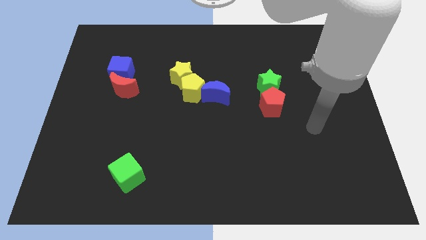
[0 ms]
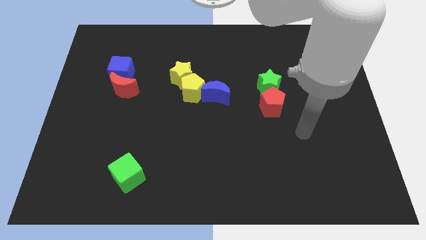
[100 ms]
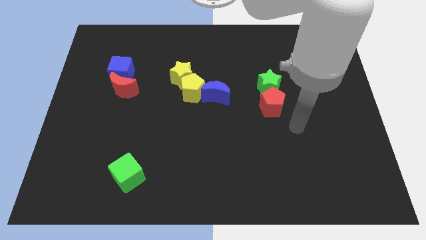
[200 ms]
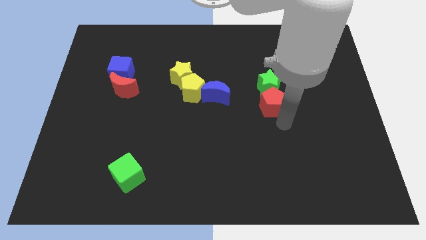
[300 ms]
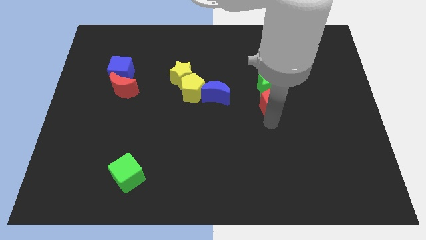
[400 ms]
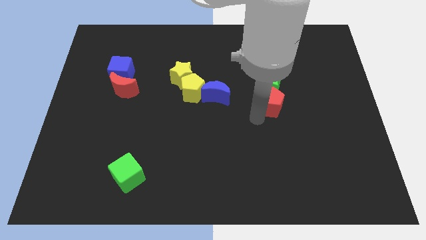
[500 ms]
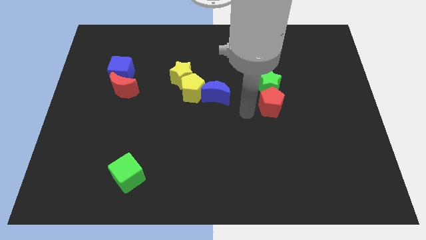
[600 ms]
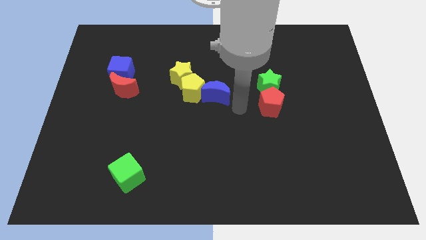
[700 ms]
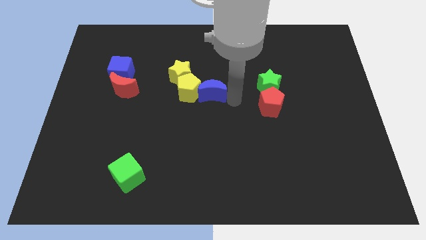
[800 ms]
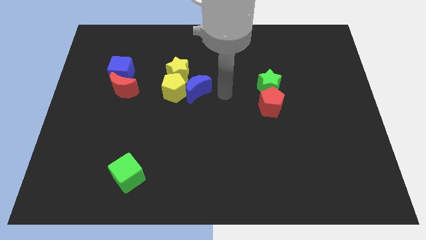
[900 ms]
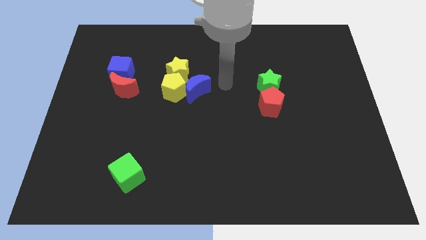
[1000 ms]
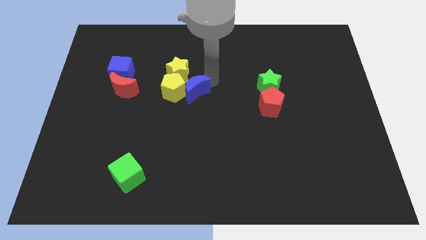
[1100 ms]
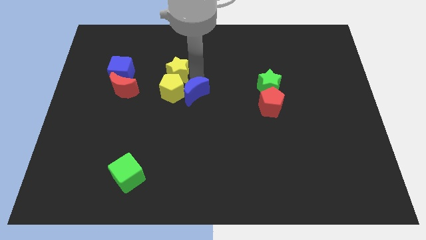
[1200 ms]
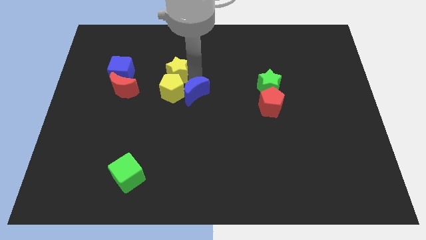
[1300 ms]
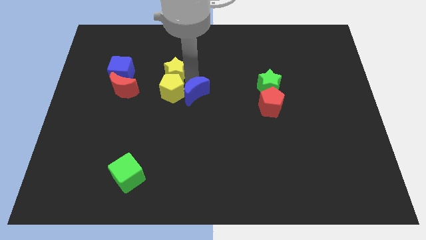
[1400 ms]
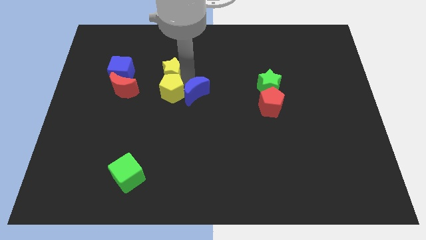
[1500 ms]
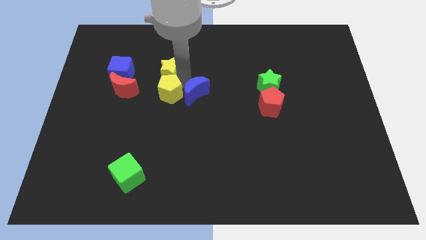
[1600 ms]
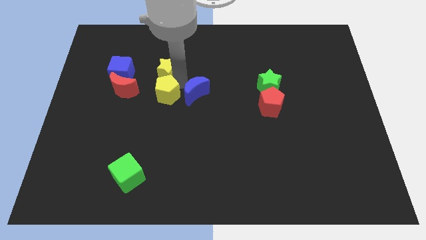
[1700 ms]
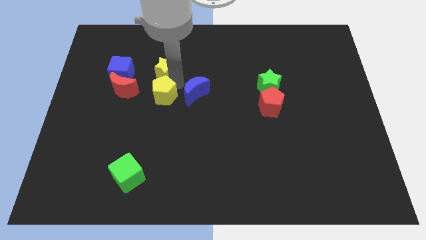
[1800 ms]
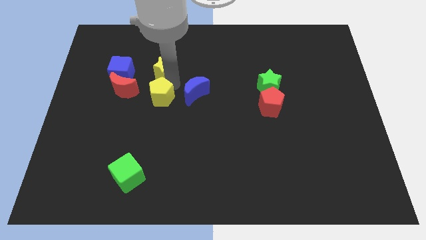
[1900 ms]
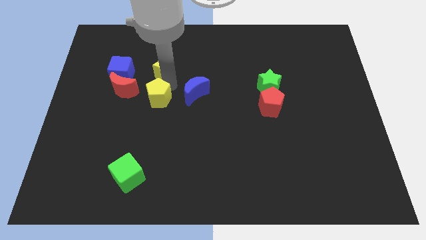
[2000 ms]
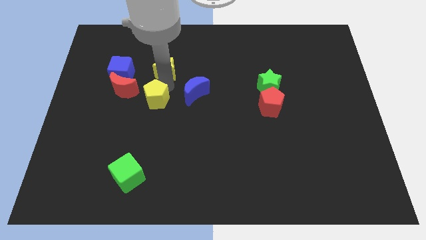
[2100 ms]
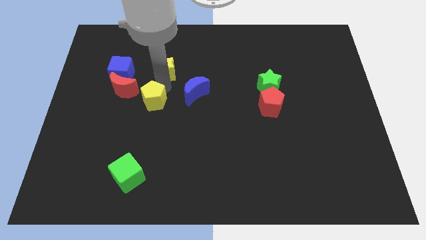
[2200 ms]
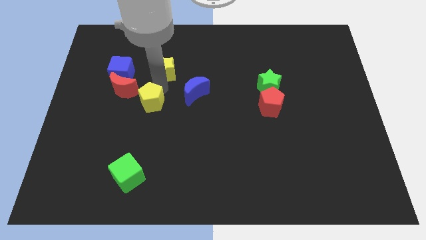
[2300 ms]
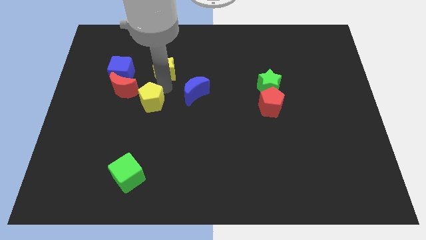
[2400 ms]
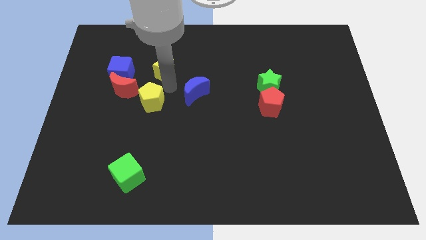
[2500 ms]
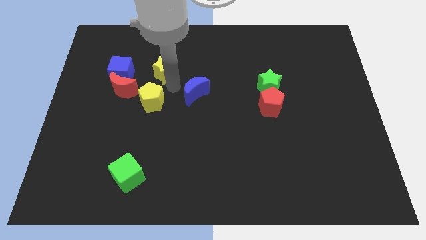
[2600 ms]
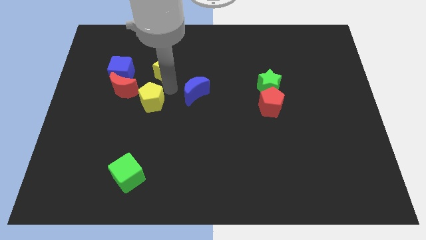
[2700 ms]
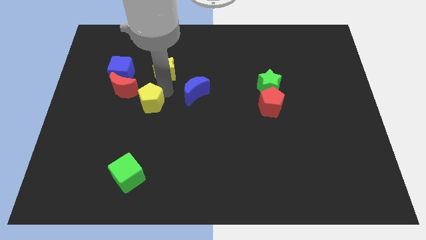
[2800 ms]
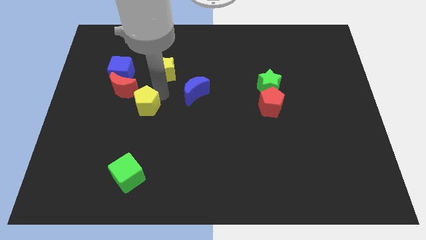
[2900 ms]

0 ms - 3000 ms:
pull the yellow pentagon apart from the yellow star and blue moon

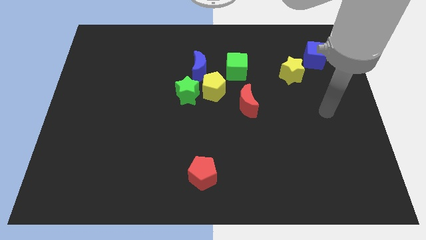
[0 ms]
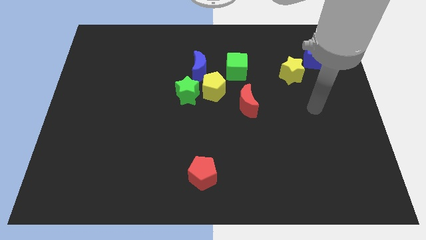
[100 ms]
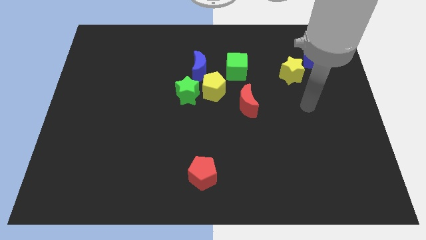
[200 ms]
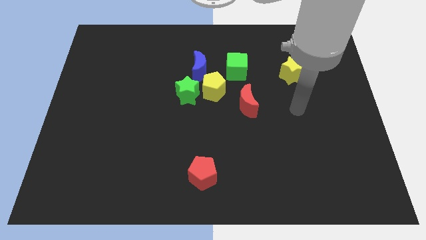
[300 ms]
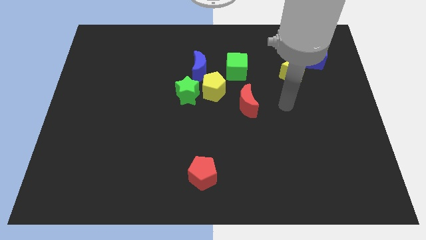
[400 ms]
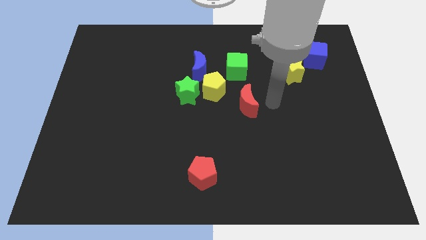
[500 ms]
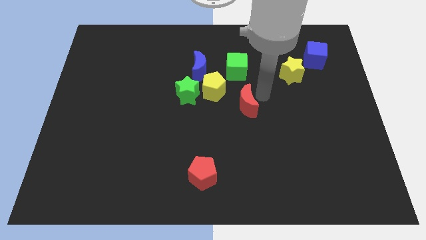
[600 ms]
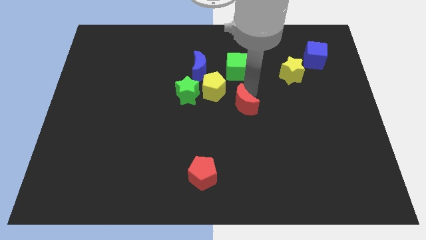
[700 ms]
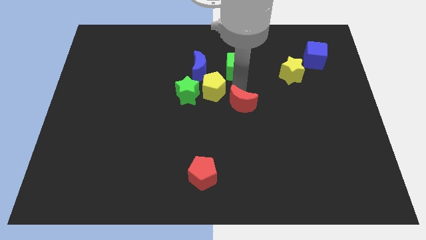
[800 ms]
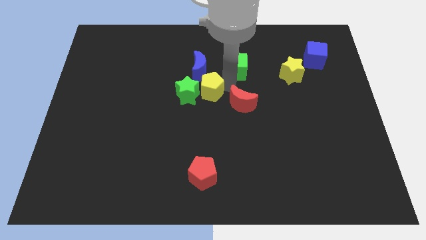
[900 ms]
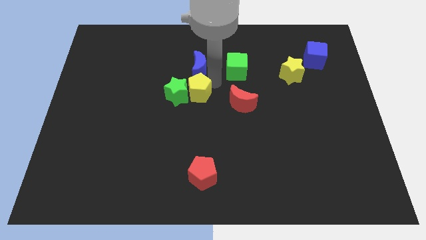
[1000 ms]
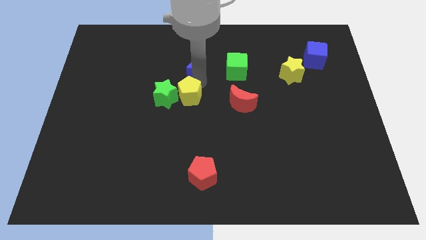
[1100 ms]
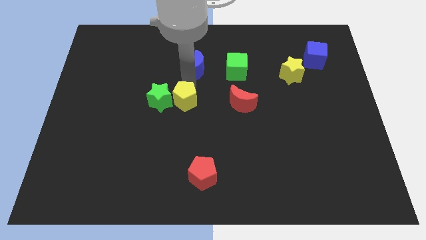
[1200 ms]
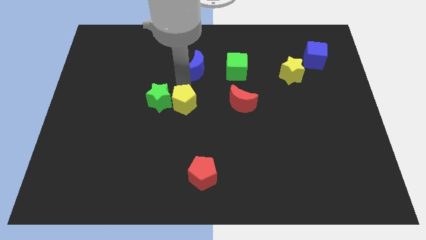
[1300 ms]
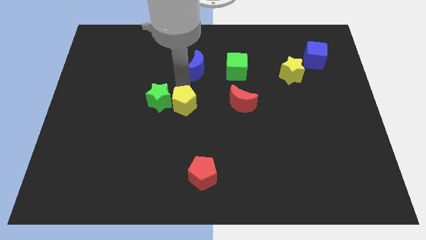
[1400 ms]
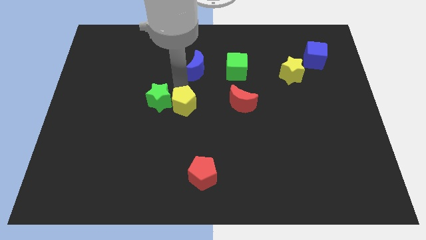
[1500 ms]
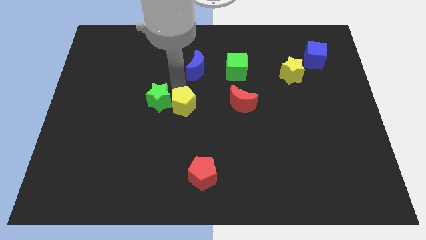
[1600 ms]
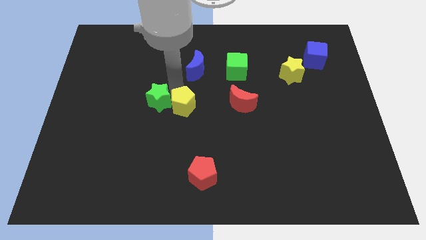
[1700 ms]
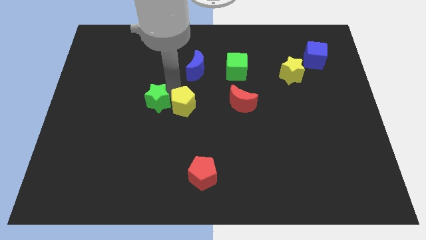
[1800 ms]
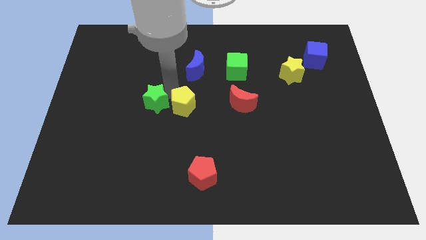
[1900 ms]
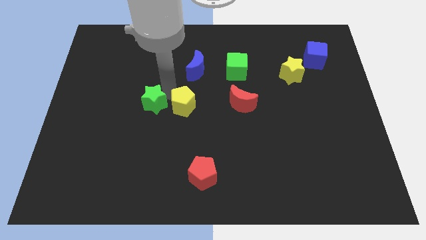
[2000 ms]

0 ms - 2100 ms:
pull the green star apart from the yellow pentagon and blue moon

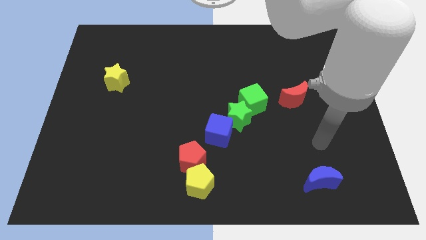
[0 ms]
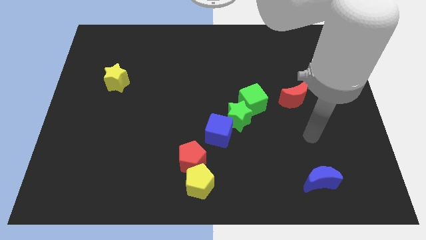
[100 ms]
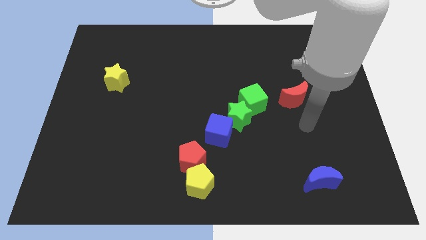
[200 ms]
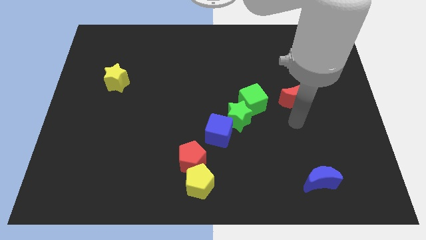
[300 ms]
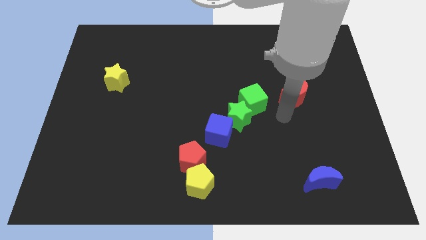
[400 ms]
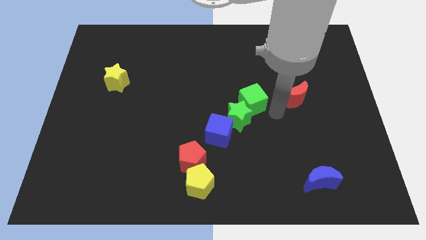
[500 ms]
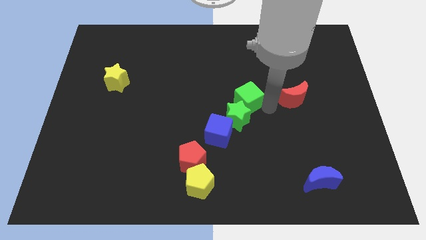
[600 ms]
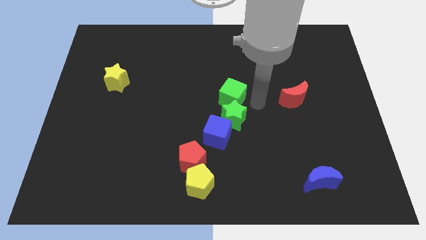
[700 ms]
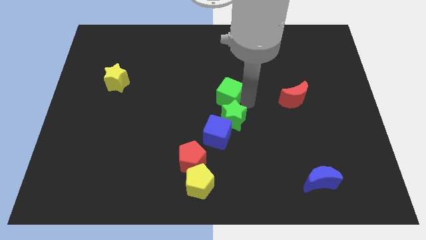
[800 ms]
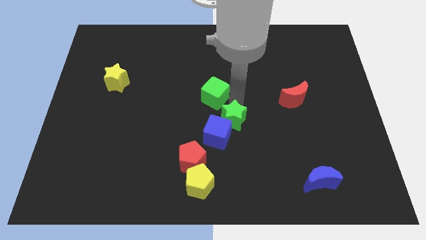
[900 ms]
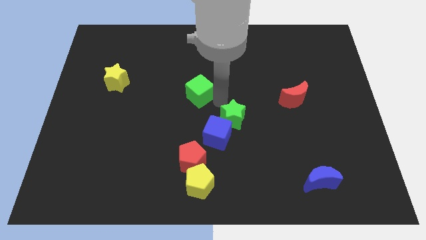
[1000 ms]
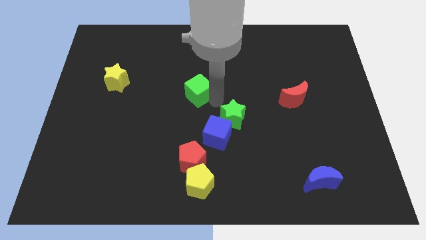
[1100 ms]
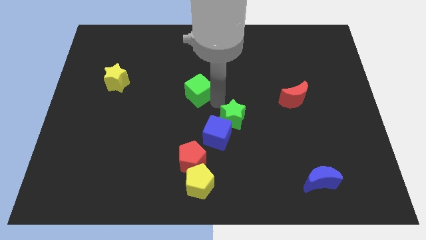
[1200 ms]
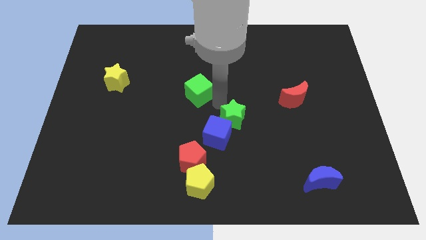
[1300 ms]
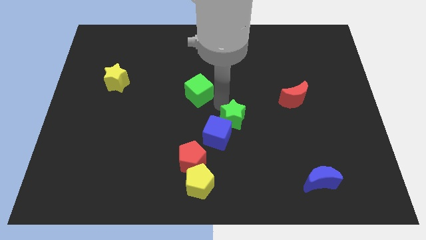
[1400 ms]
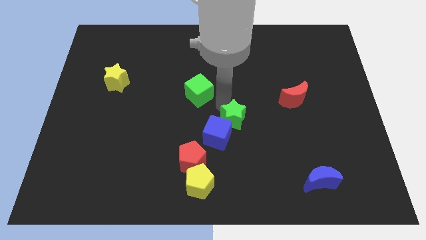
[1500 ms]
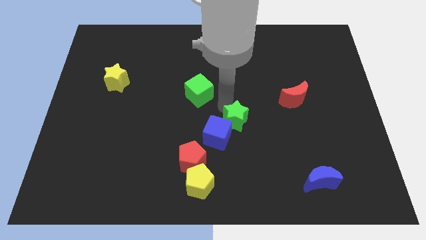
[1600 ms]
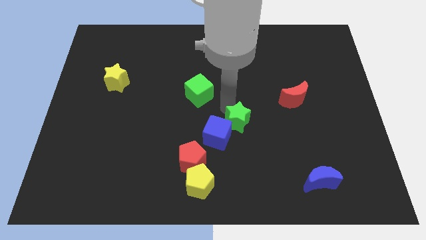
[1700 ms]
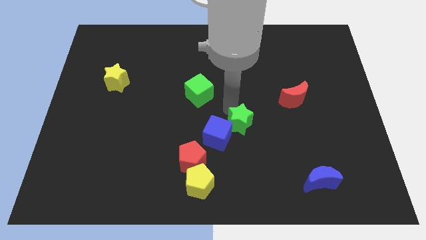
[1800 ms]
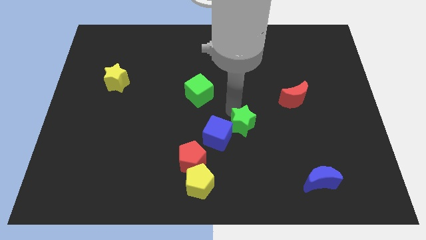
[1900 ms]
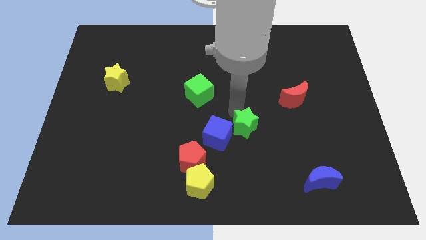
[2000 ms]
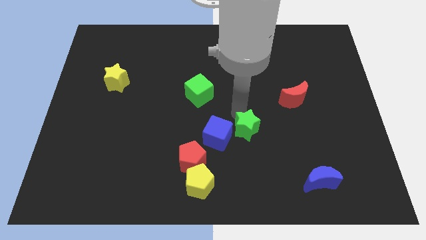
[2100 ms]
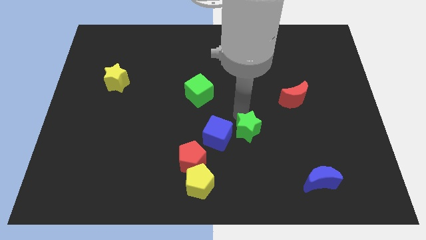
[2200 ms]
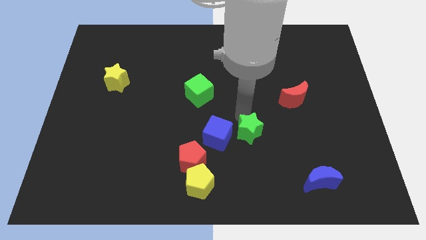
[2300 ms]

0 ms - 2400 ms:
pull the green star apart from the blue cube and green cube

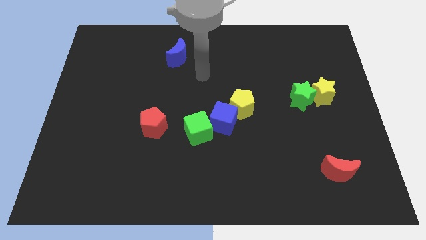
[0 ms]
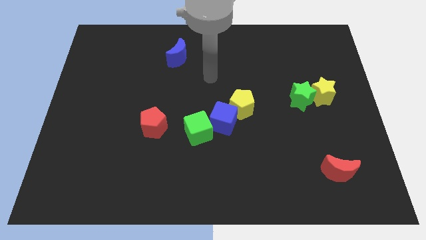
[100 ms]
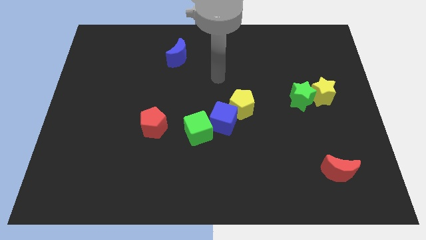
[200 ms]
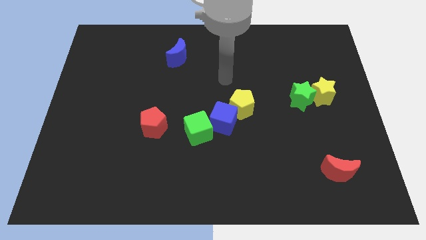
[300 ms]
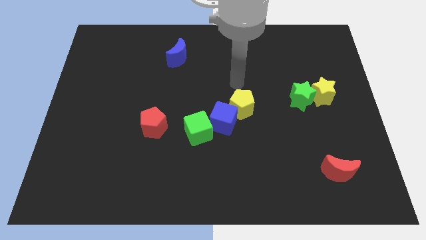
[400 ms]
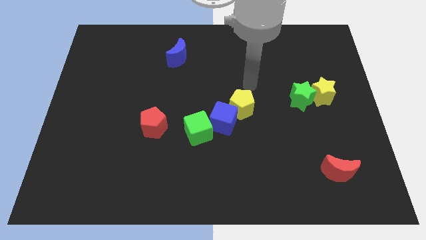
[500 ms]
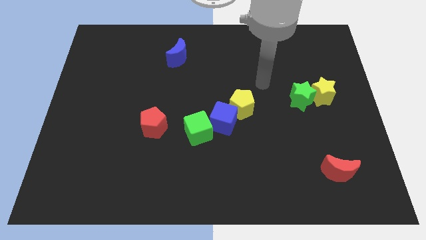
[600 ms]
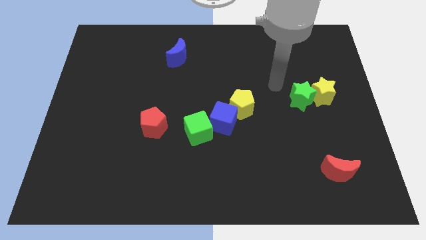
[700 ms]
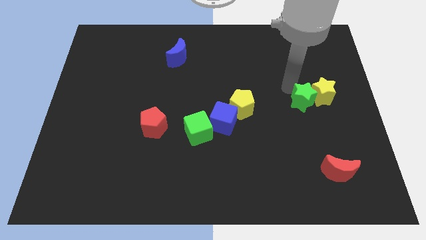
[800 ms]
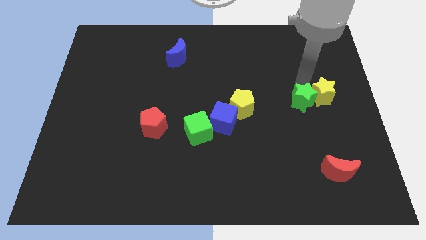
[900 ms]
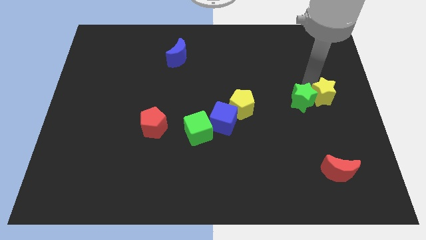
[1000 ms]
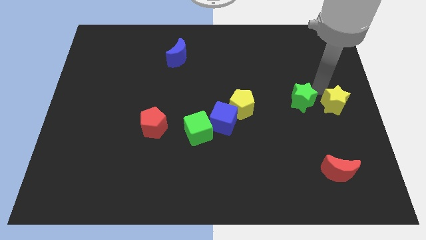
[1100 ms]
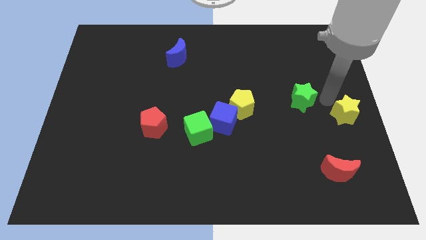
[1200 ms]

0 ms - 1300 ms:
separate the green star from the yellow star

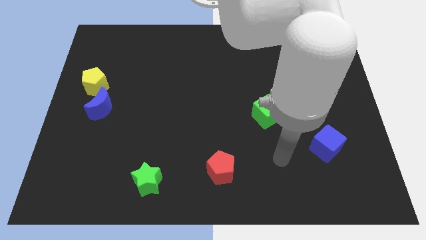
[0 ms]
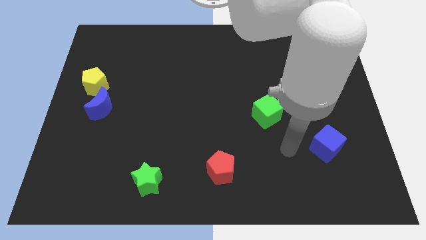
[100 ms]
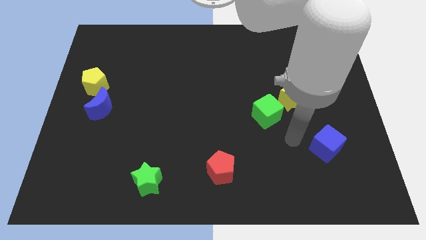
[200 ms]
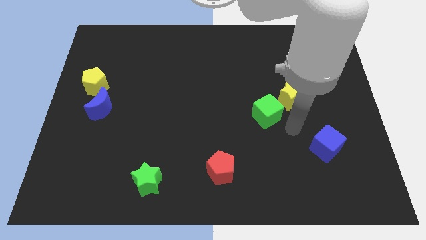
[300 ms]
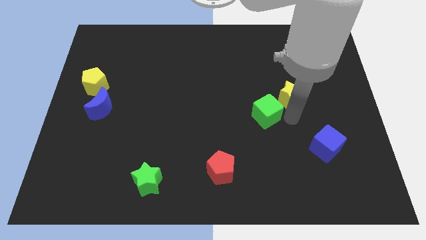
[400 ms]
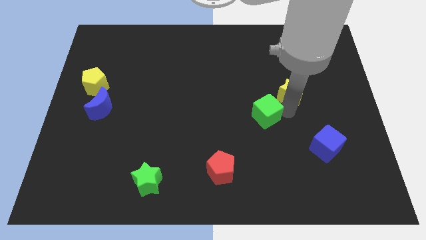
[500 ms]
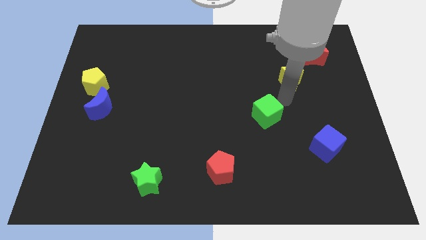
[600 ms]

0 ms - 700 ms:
move the green cube away from the yellow star
